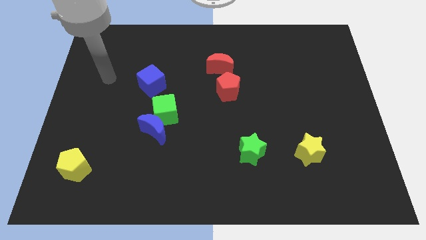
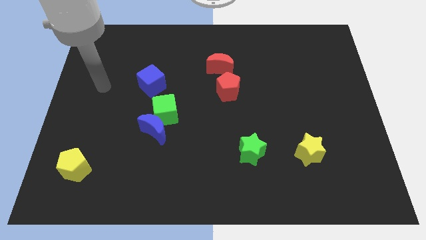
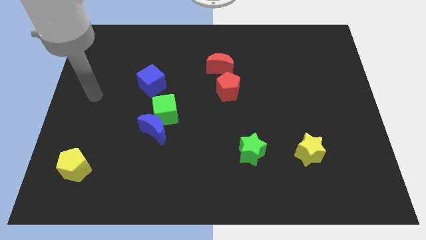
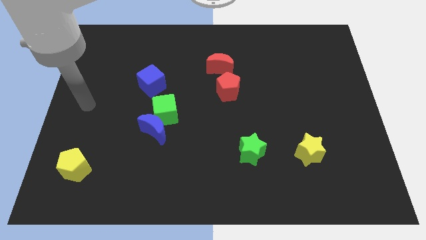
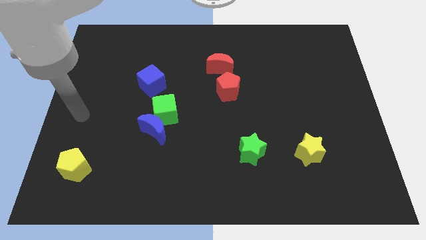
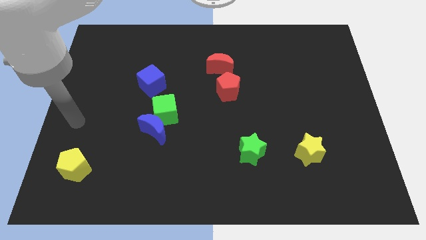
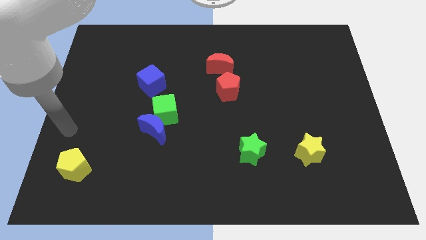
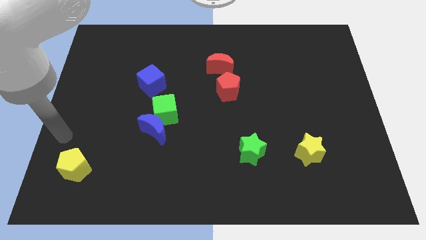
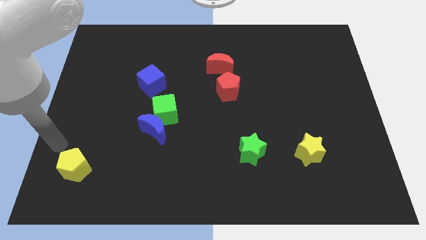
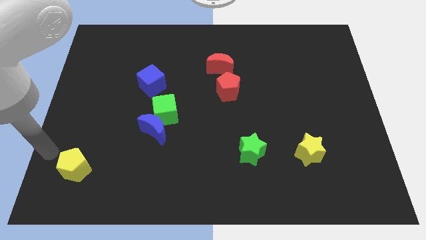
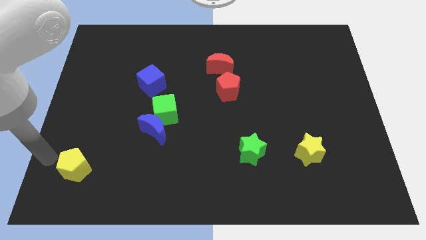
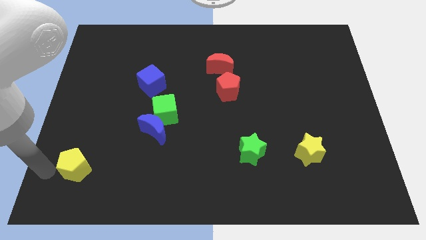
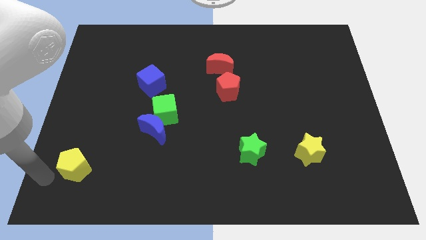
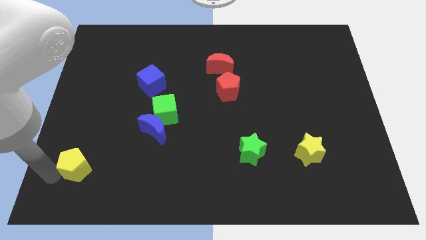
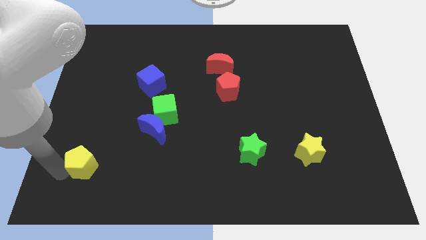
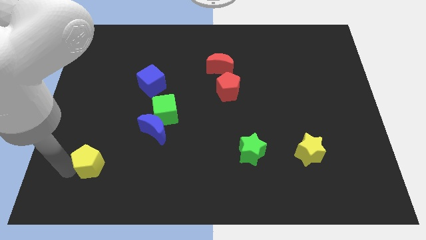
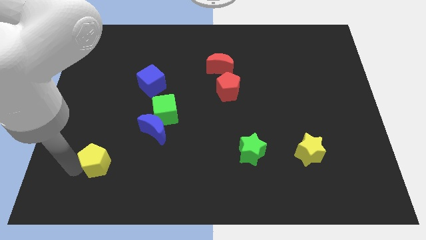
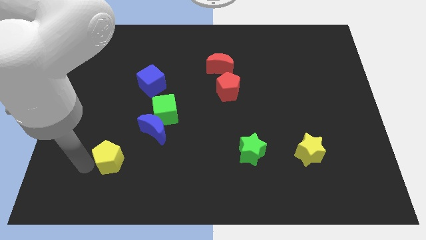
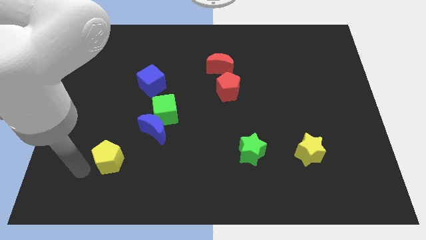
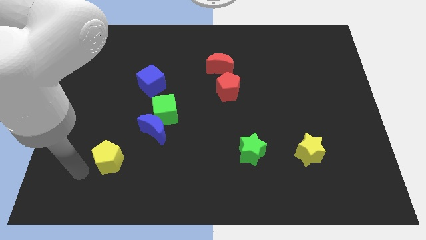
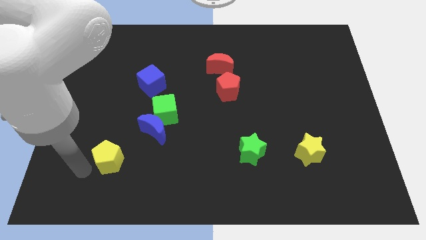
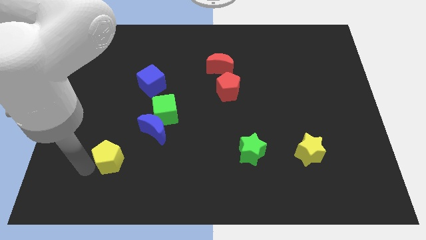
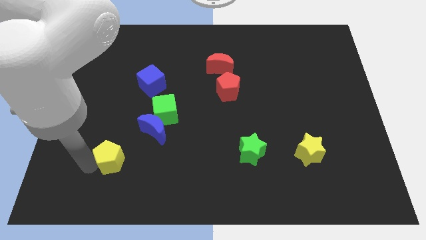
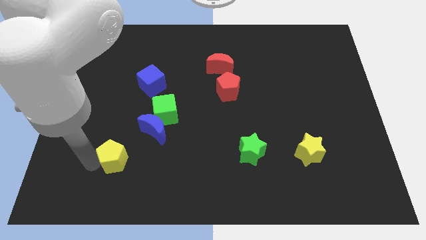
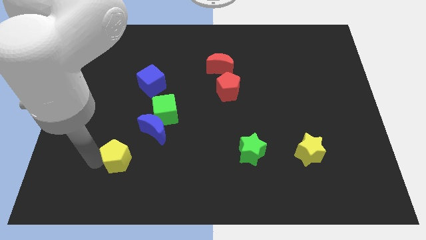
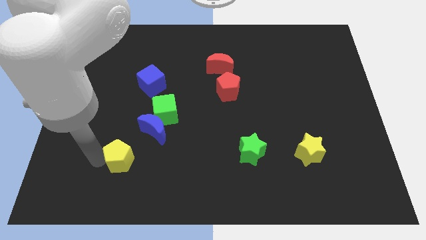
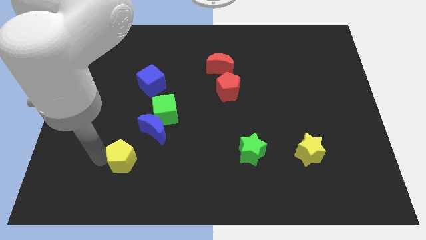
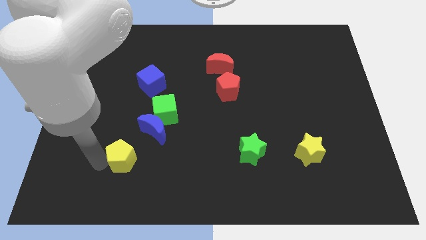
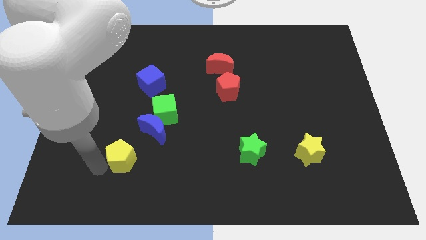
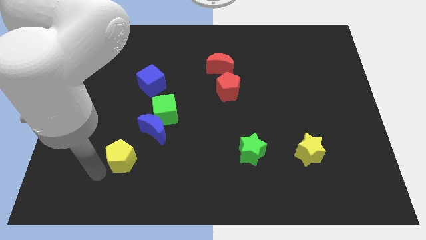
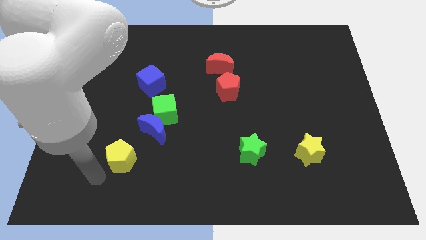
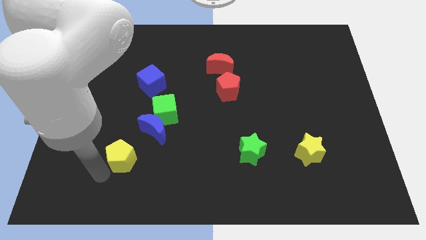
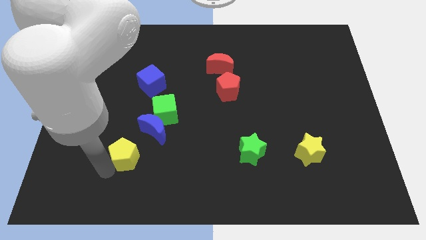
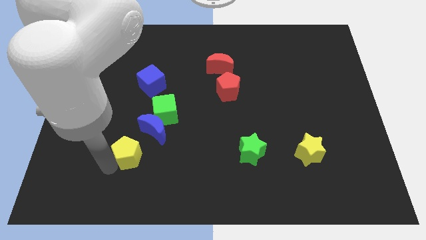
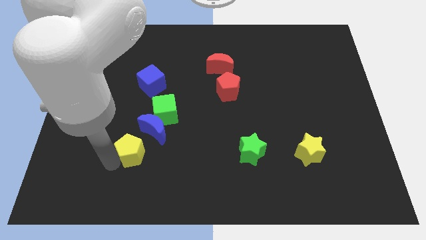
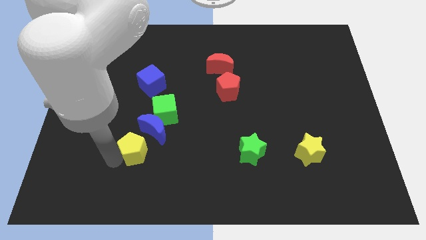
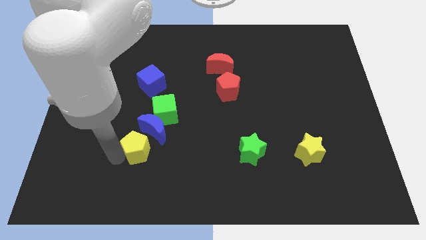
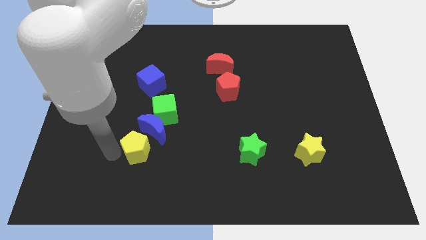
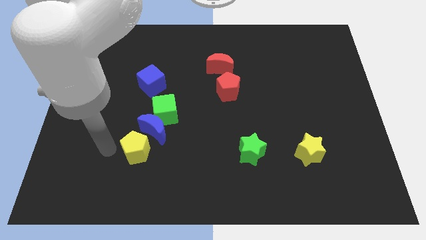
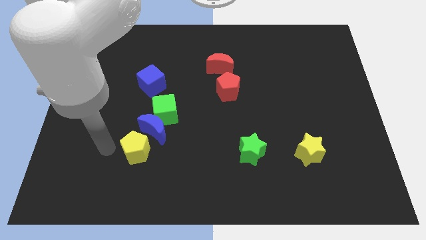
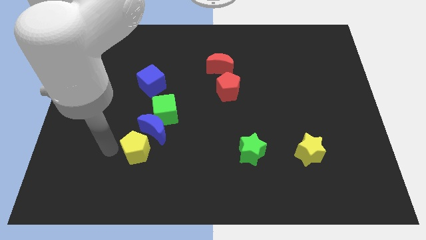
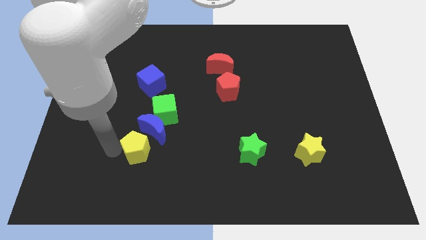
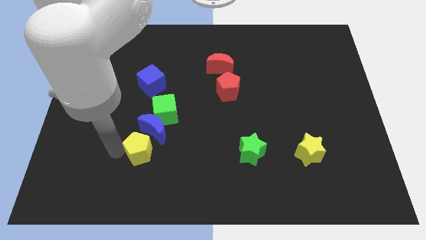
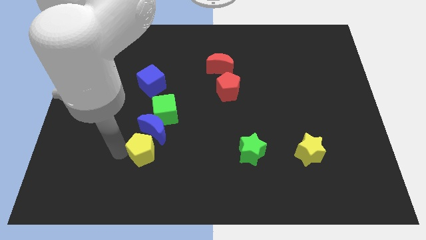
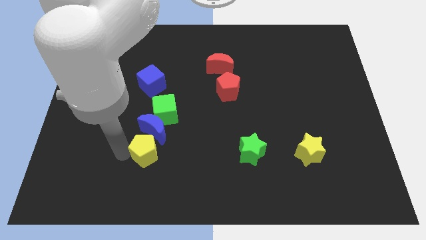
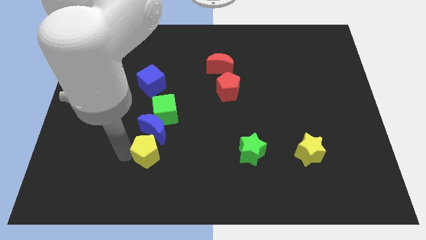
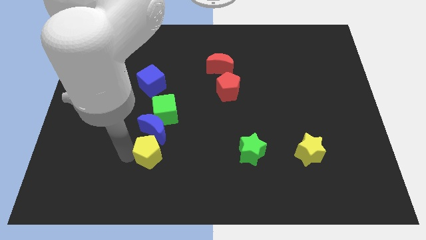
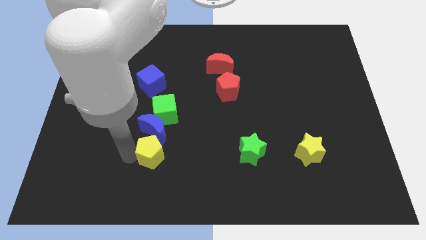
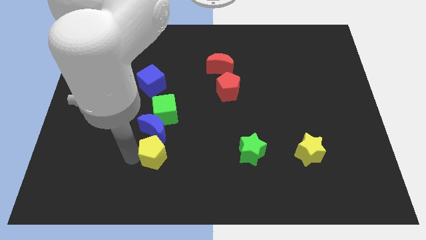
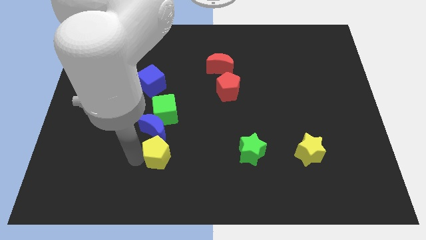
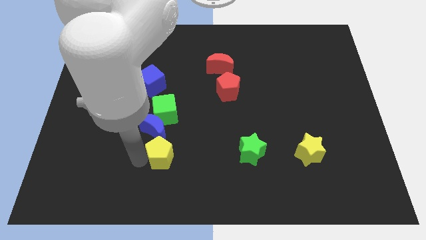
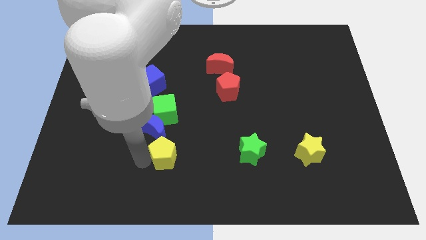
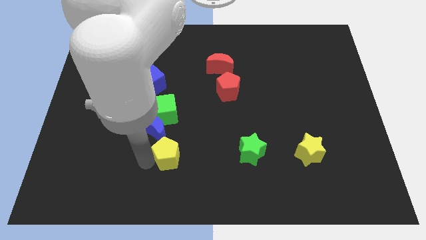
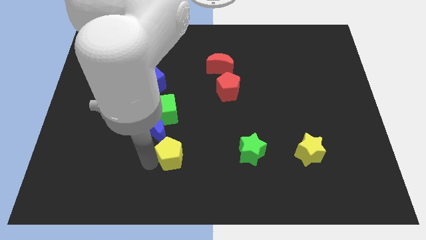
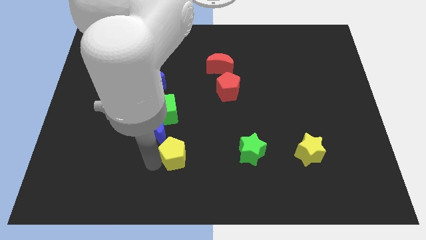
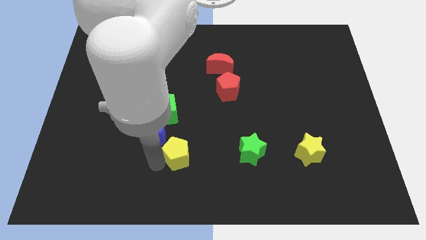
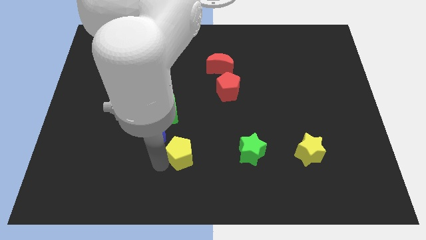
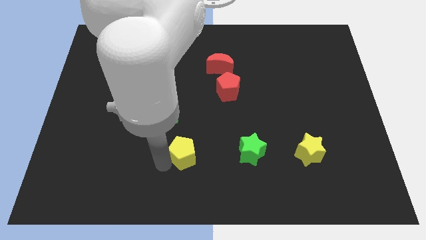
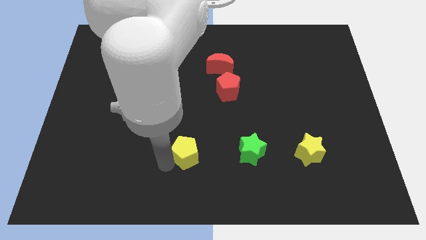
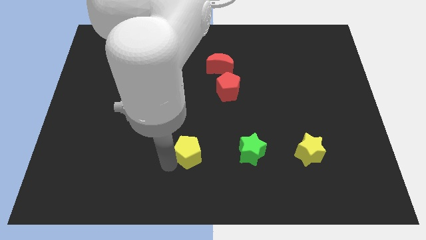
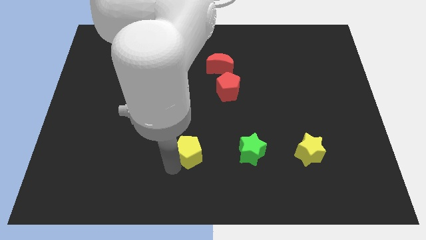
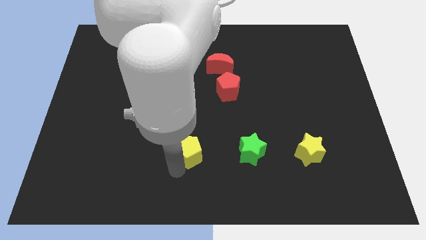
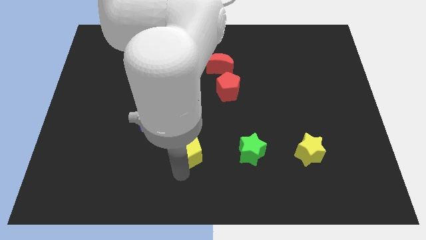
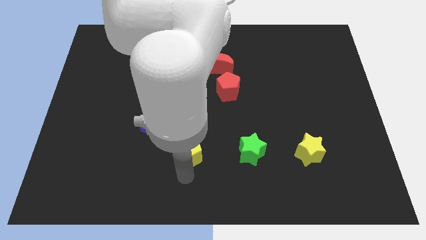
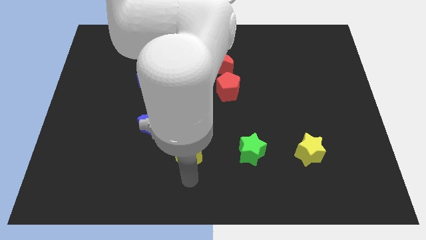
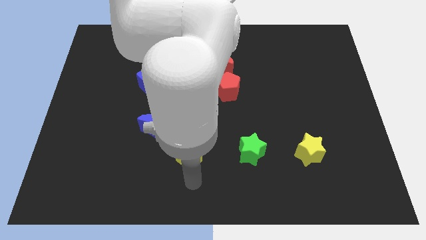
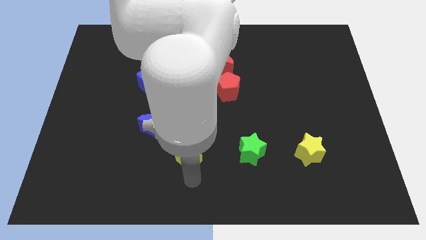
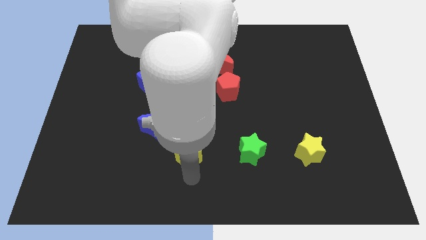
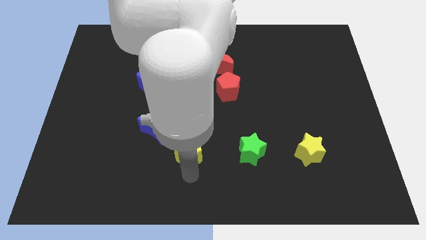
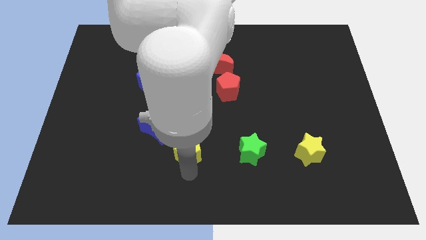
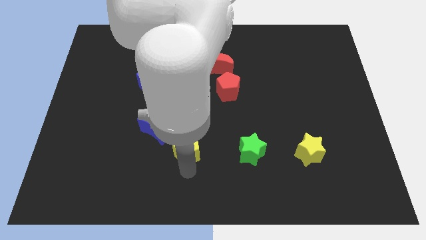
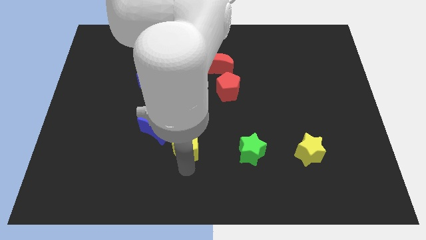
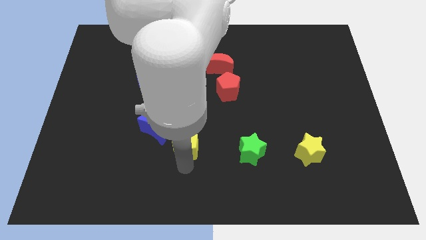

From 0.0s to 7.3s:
move the yellow pentagon to the right of the blue moon
